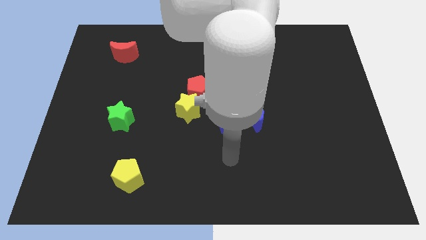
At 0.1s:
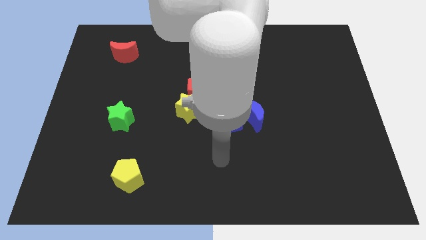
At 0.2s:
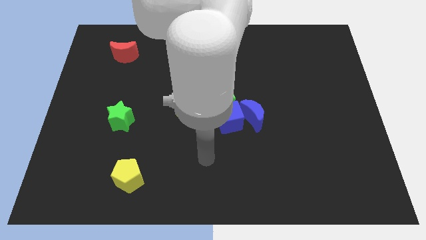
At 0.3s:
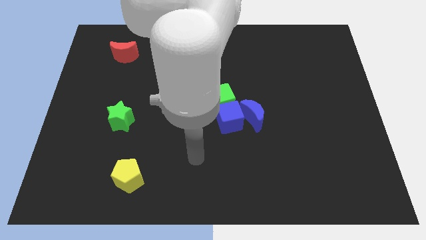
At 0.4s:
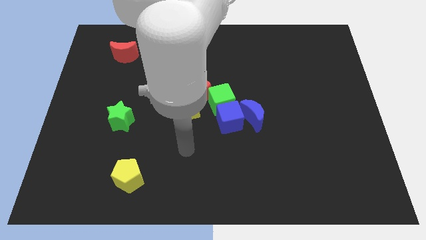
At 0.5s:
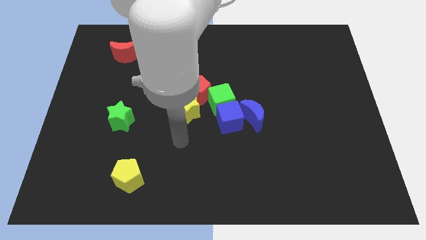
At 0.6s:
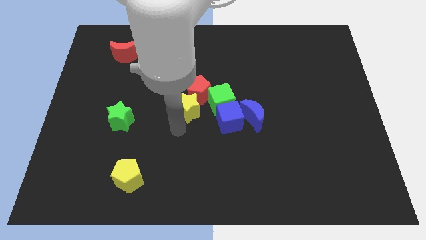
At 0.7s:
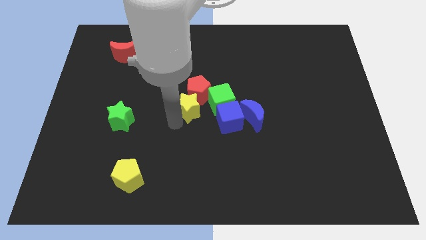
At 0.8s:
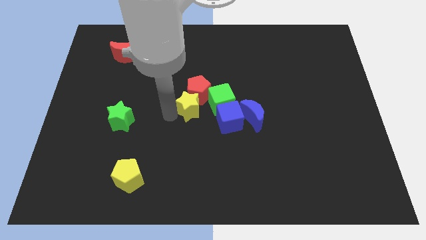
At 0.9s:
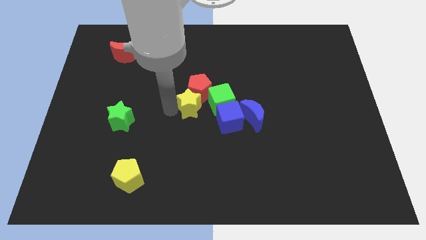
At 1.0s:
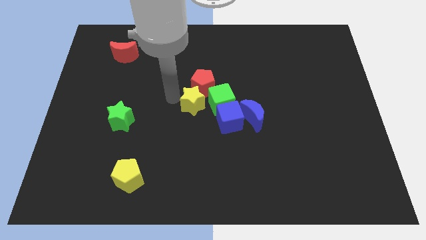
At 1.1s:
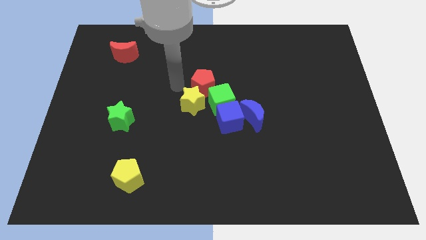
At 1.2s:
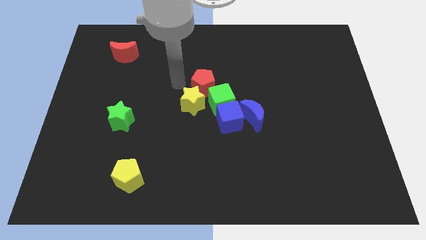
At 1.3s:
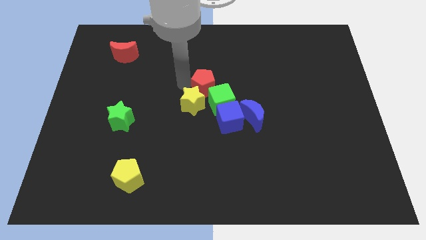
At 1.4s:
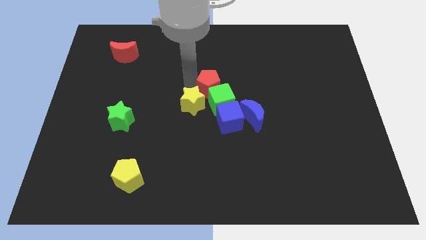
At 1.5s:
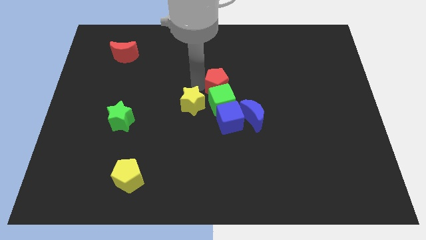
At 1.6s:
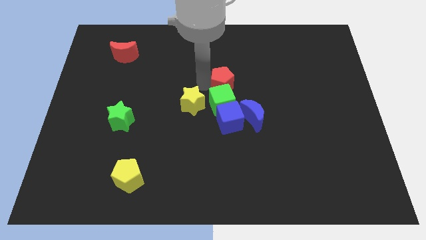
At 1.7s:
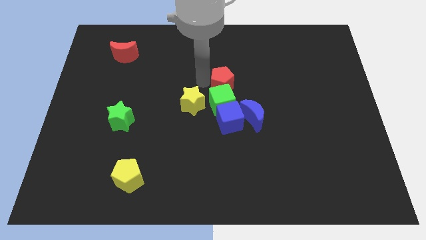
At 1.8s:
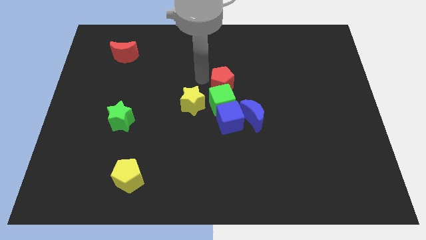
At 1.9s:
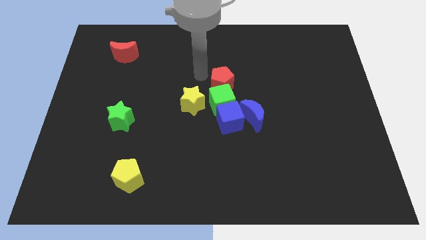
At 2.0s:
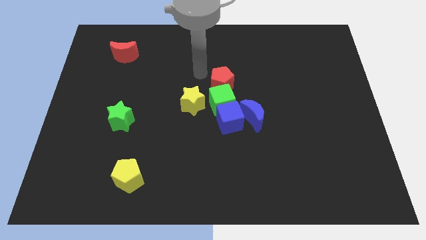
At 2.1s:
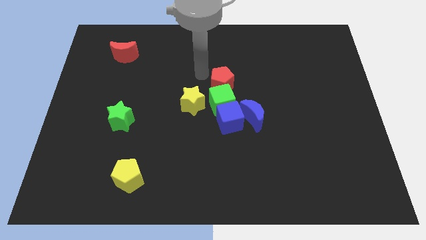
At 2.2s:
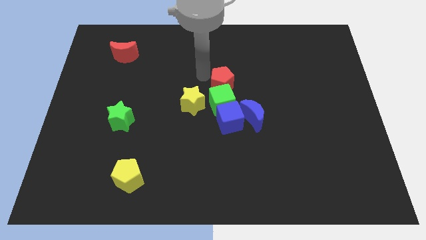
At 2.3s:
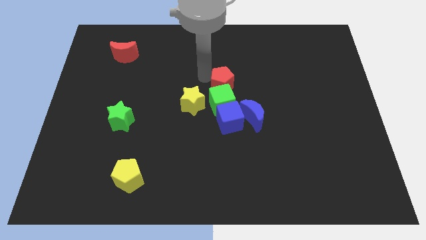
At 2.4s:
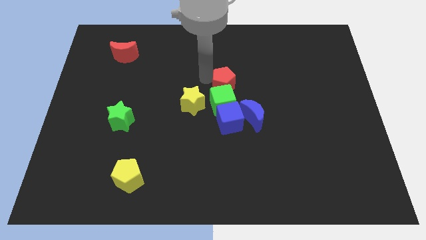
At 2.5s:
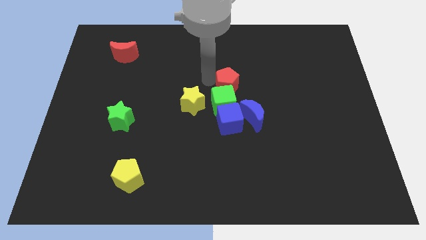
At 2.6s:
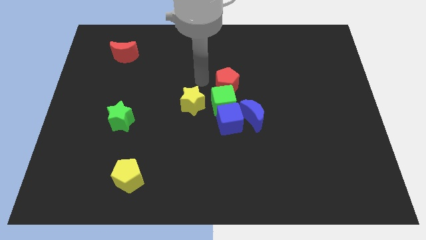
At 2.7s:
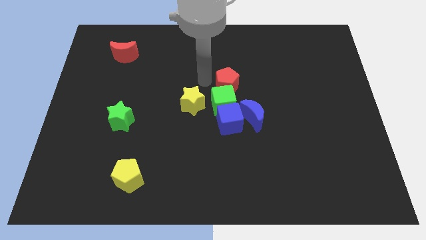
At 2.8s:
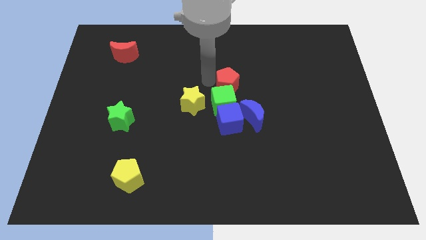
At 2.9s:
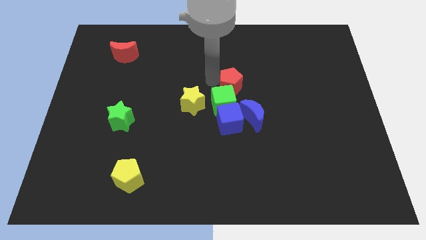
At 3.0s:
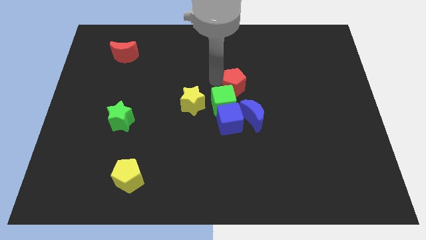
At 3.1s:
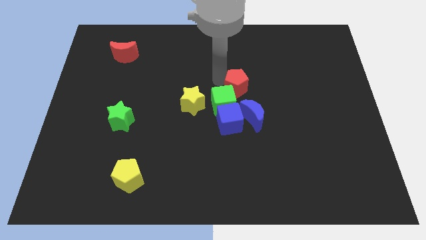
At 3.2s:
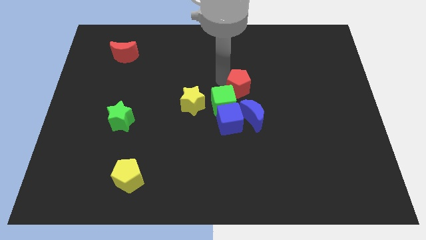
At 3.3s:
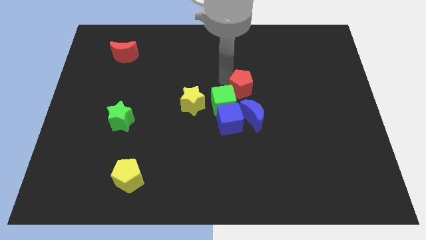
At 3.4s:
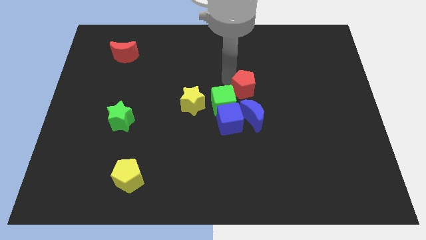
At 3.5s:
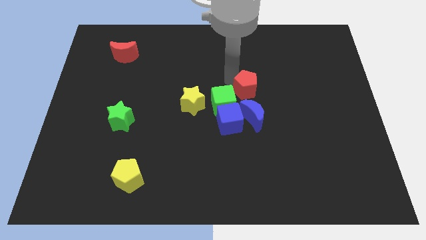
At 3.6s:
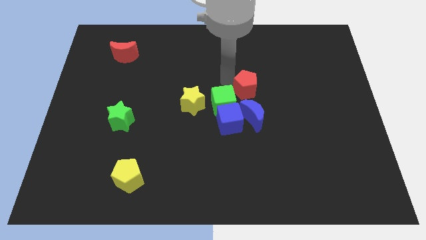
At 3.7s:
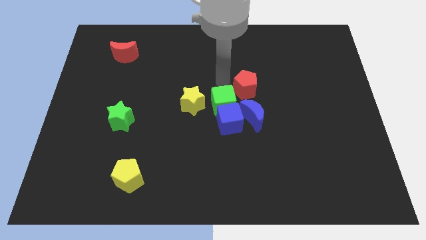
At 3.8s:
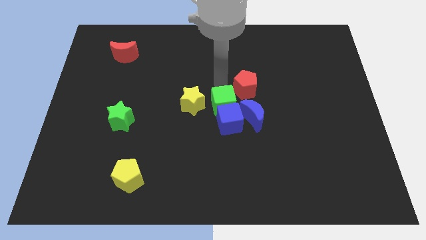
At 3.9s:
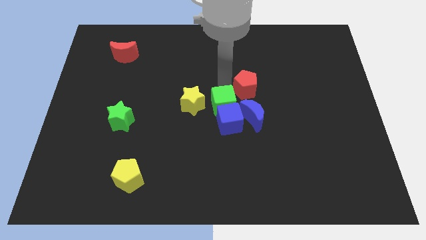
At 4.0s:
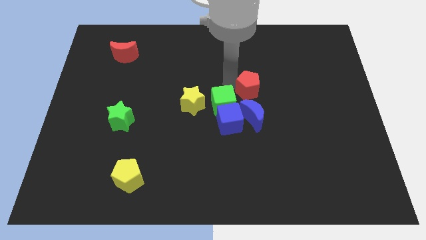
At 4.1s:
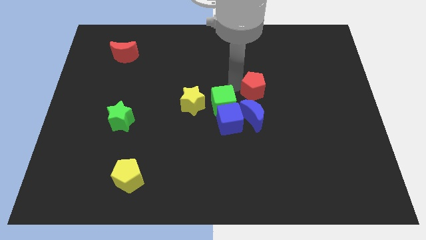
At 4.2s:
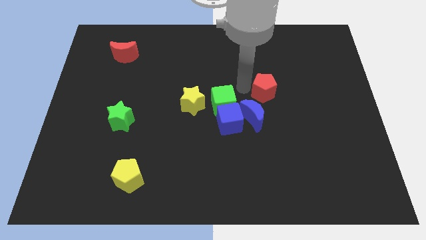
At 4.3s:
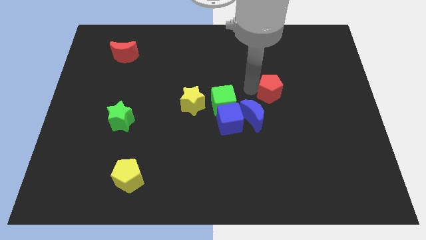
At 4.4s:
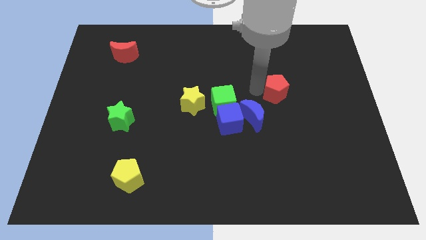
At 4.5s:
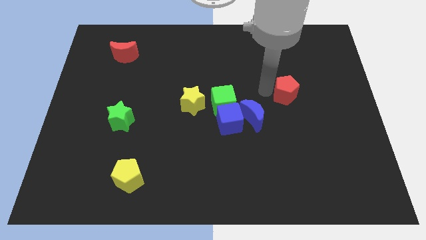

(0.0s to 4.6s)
slide the red pentagon right

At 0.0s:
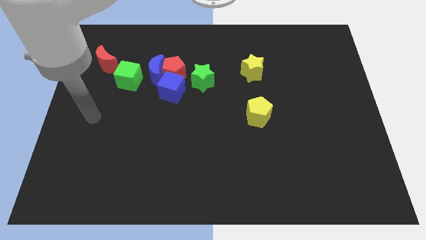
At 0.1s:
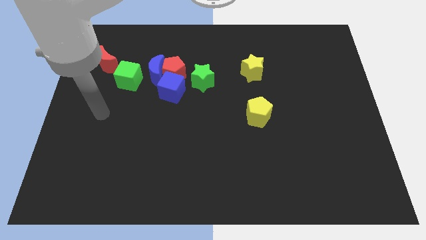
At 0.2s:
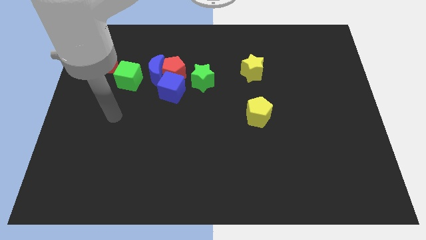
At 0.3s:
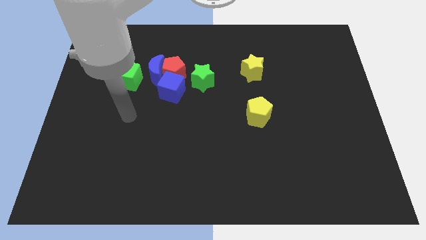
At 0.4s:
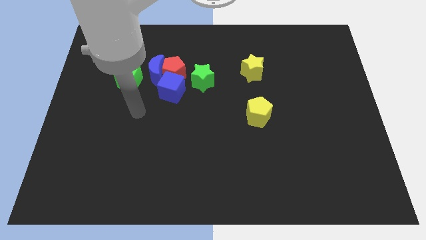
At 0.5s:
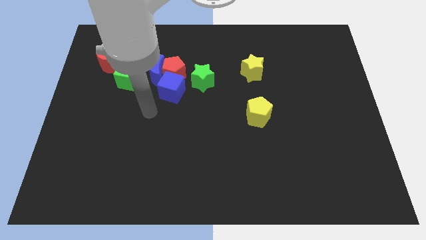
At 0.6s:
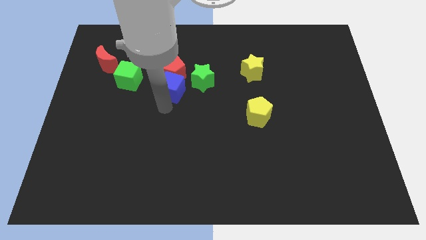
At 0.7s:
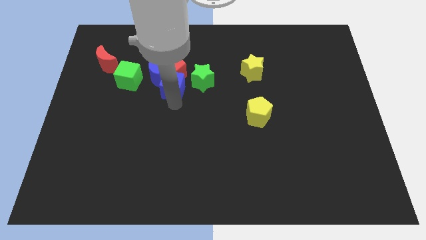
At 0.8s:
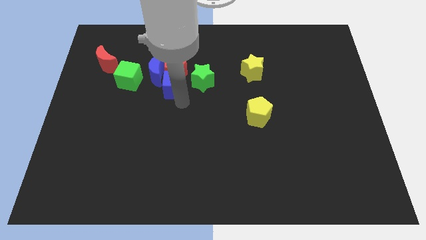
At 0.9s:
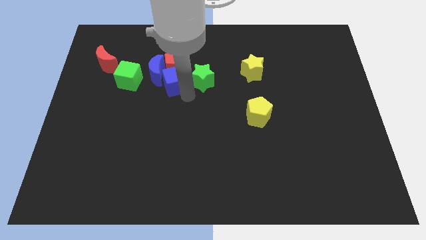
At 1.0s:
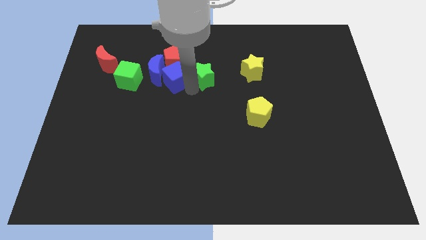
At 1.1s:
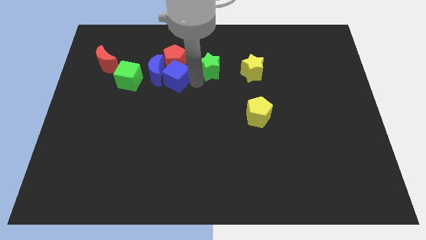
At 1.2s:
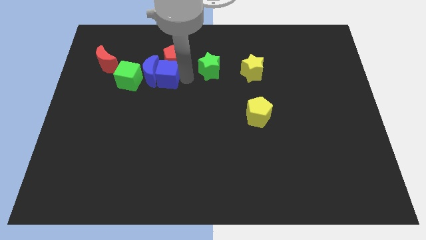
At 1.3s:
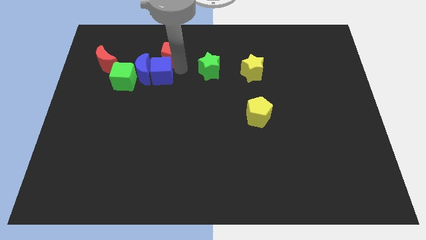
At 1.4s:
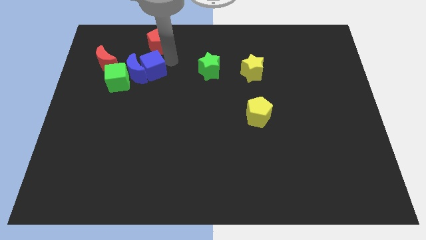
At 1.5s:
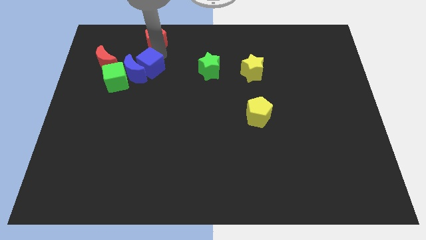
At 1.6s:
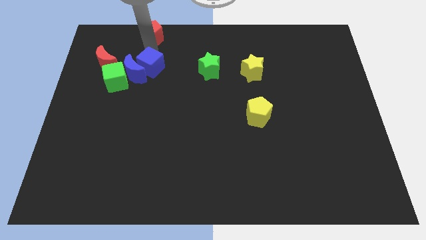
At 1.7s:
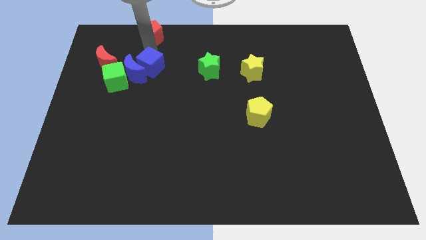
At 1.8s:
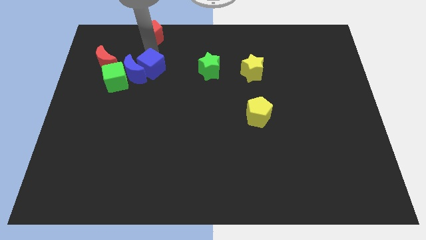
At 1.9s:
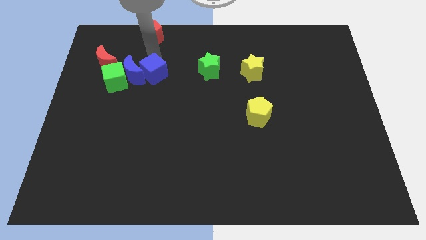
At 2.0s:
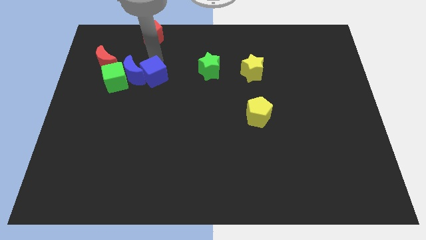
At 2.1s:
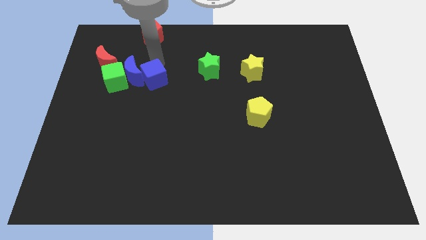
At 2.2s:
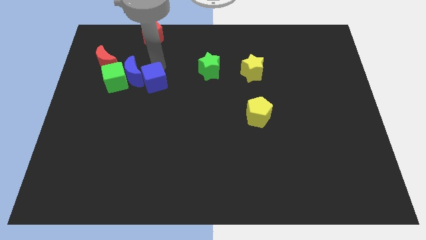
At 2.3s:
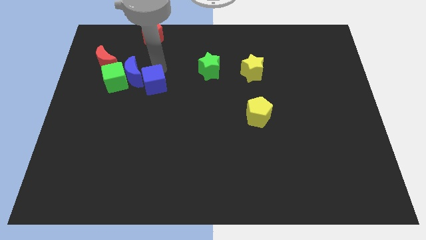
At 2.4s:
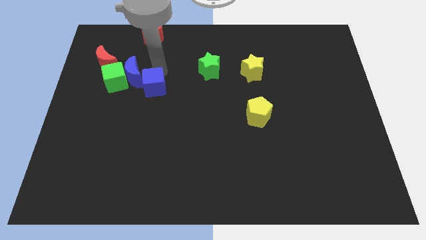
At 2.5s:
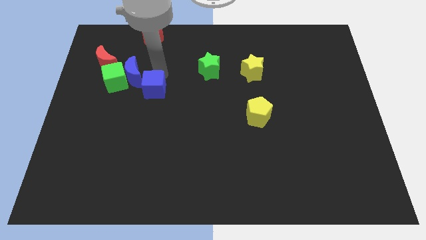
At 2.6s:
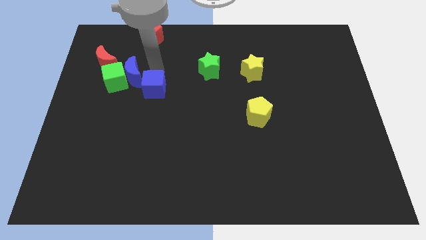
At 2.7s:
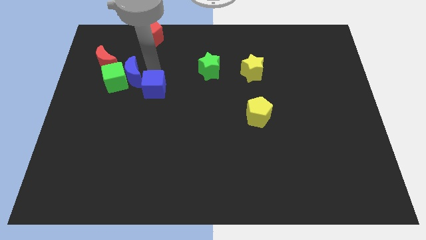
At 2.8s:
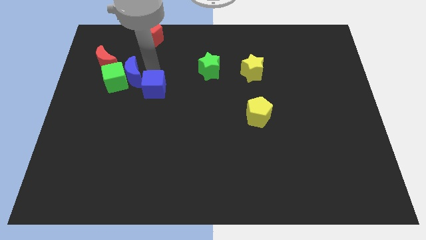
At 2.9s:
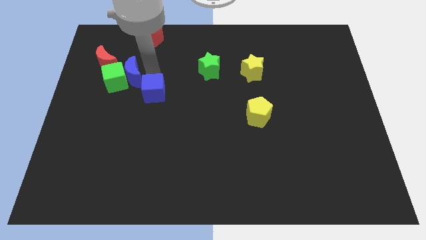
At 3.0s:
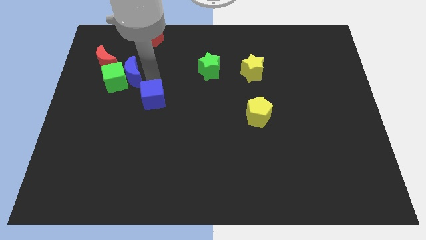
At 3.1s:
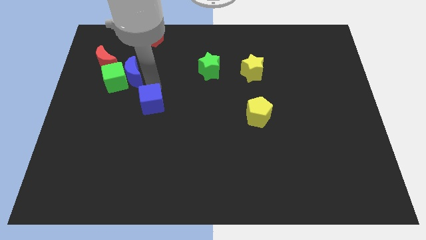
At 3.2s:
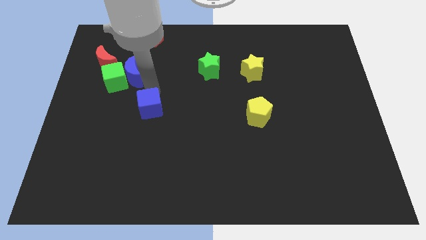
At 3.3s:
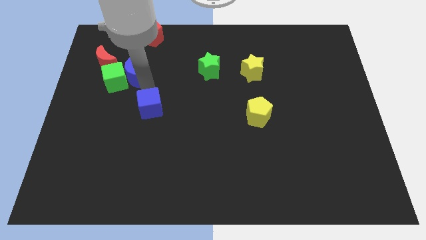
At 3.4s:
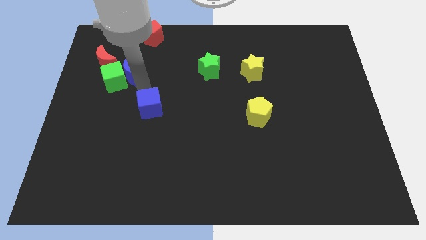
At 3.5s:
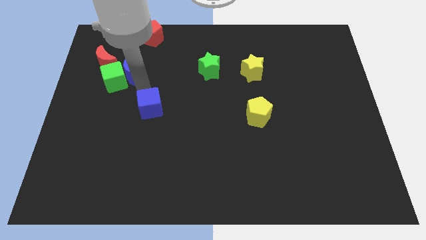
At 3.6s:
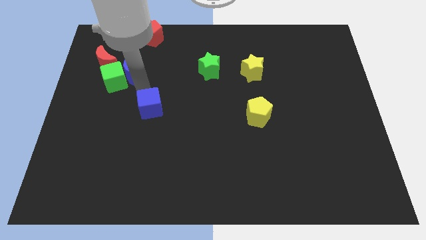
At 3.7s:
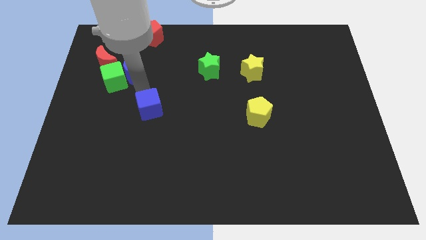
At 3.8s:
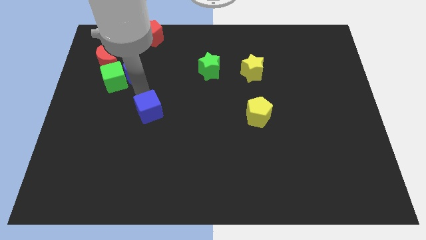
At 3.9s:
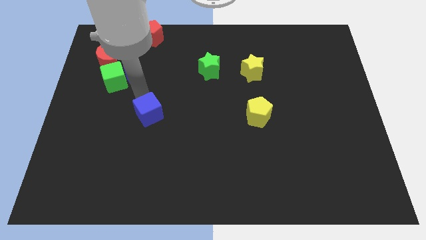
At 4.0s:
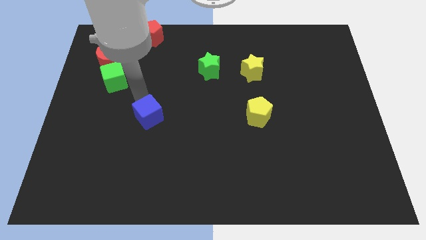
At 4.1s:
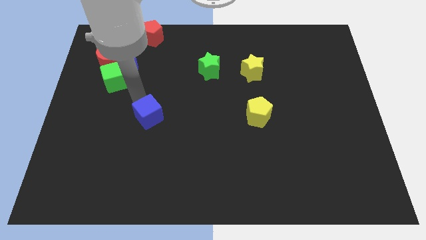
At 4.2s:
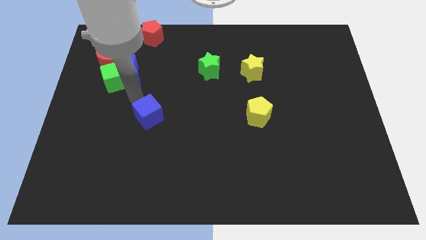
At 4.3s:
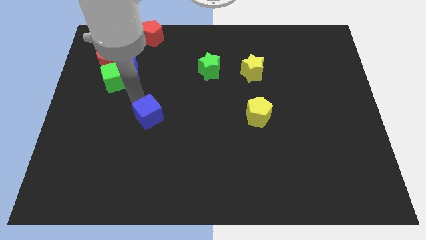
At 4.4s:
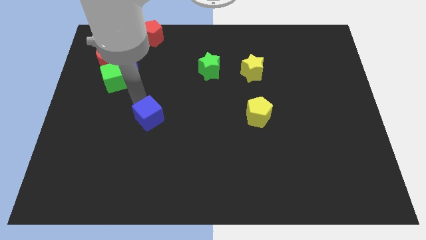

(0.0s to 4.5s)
push the blue cube slightly downwards
